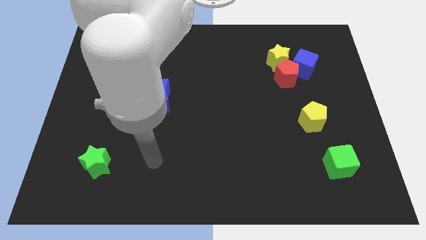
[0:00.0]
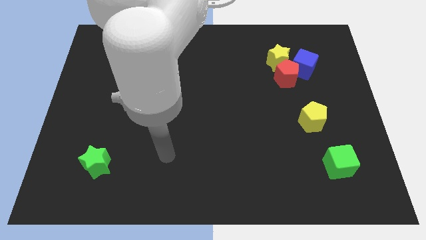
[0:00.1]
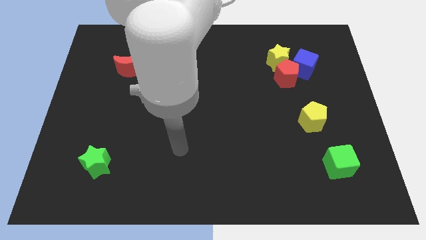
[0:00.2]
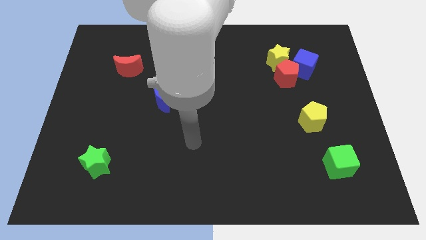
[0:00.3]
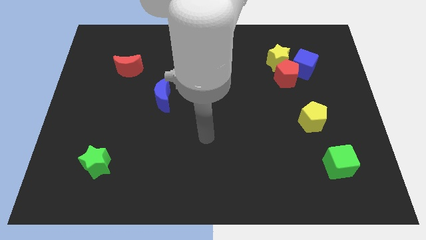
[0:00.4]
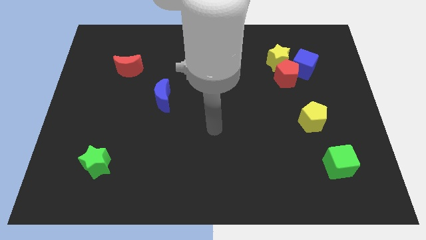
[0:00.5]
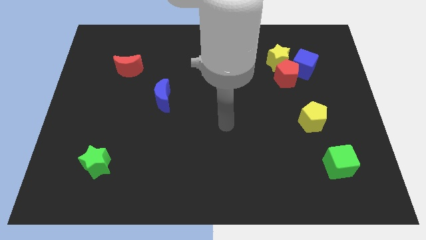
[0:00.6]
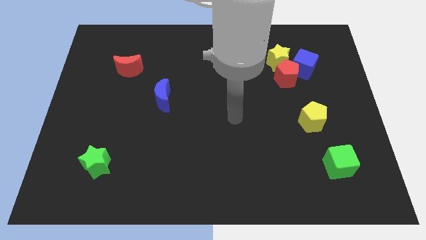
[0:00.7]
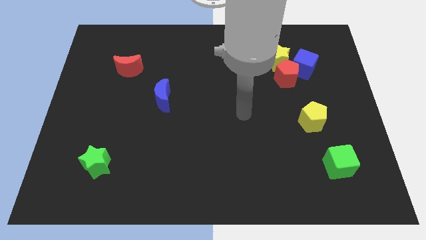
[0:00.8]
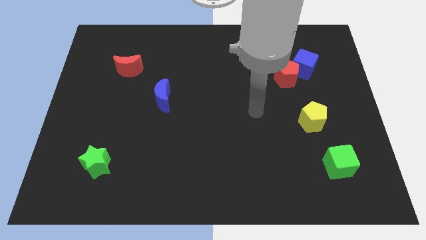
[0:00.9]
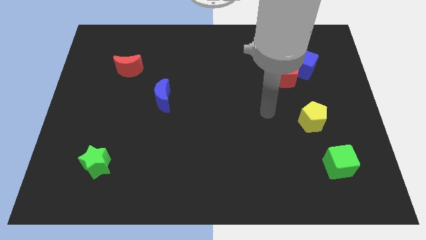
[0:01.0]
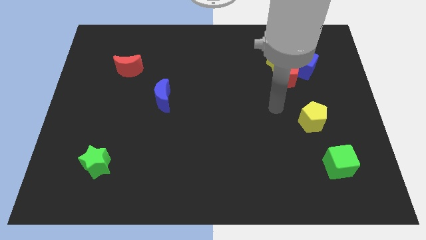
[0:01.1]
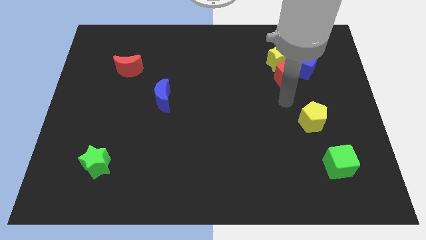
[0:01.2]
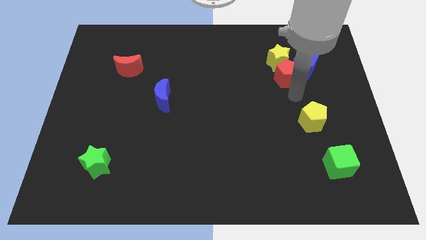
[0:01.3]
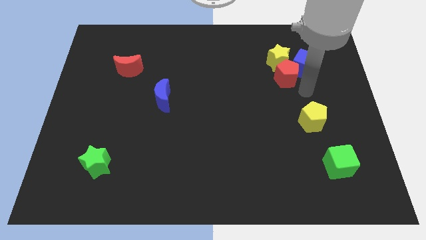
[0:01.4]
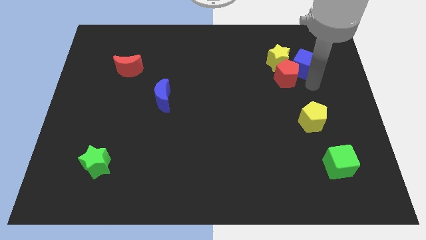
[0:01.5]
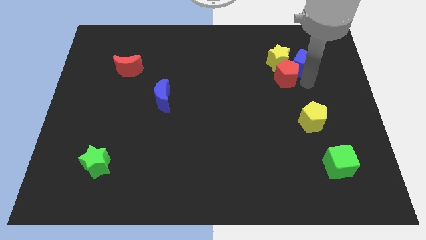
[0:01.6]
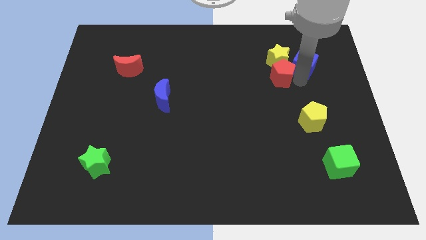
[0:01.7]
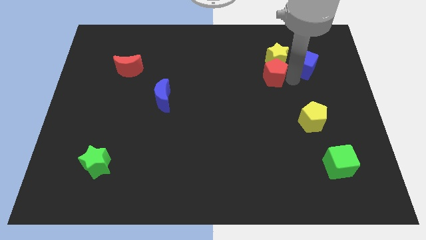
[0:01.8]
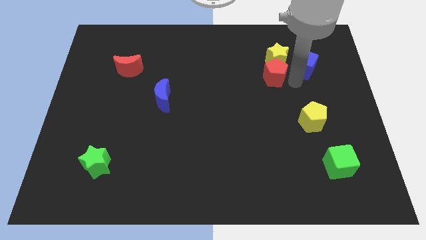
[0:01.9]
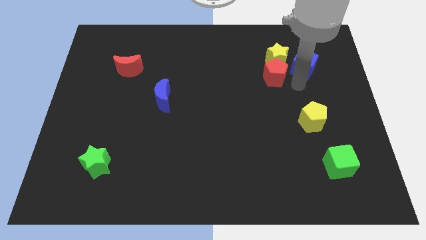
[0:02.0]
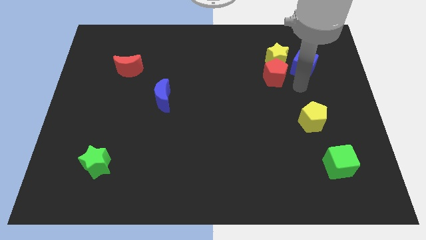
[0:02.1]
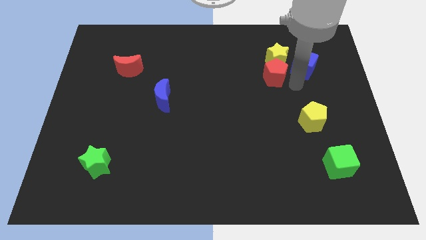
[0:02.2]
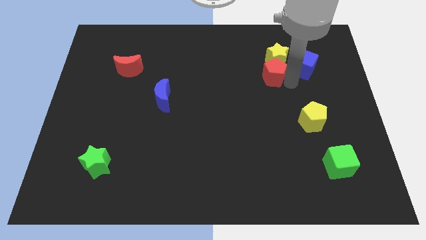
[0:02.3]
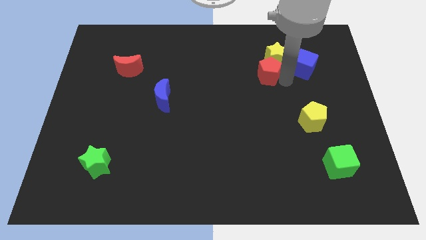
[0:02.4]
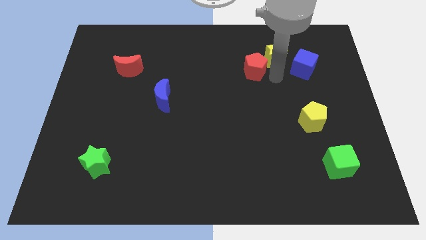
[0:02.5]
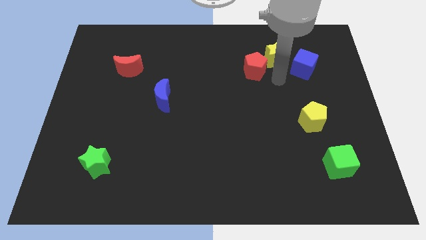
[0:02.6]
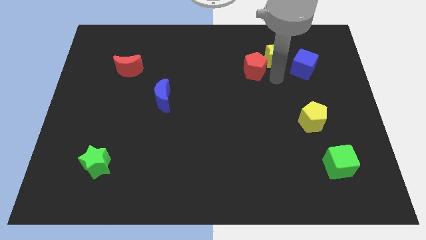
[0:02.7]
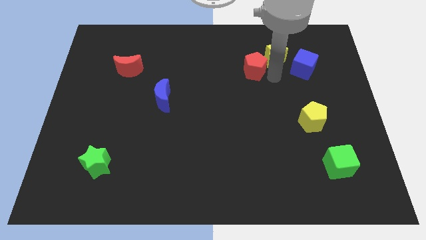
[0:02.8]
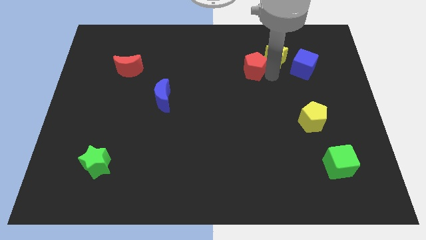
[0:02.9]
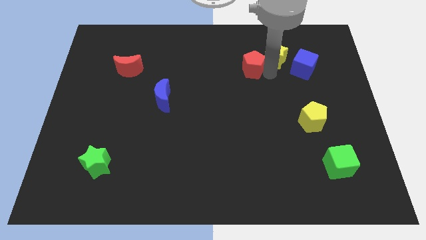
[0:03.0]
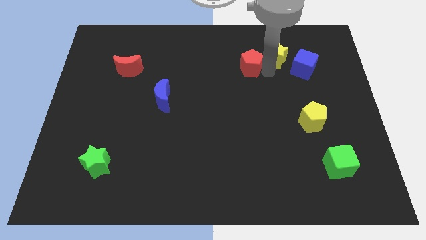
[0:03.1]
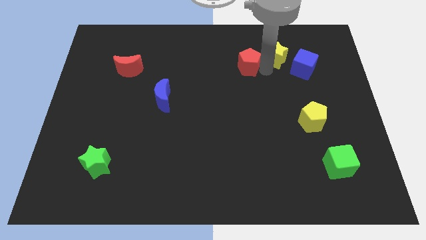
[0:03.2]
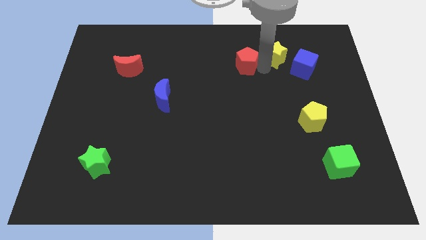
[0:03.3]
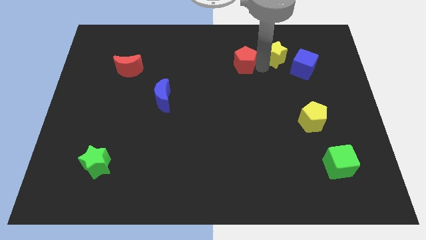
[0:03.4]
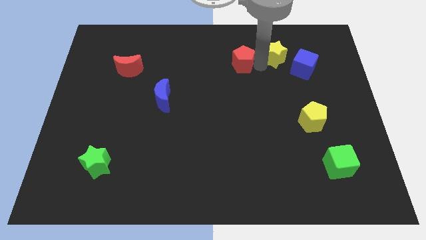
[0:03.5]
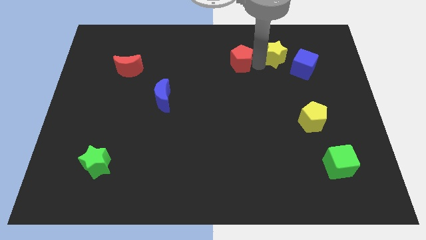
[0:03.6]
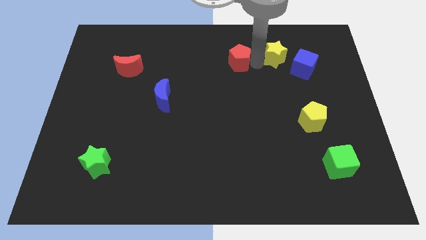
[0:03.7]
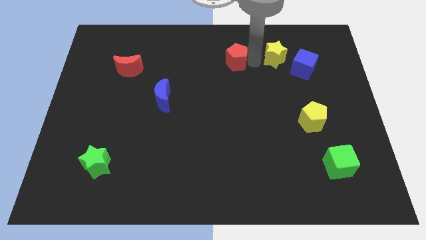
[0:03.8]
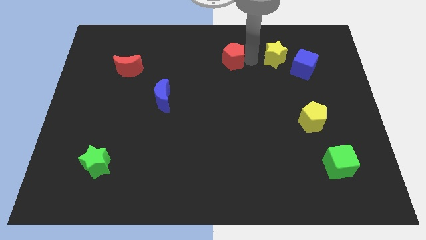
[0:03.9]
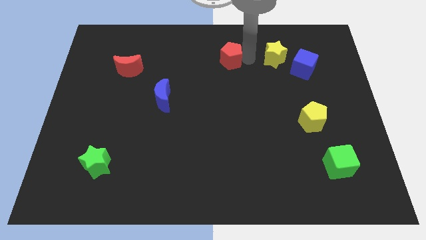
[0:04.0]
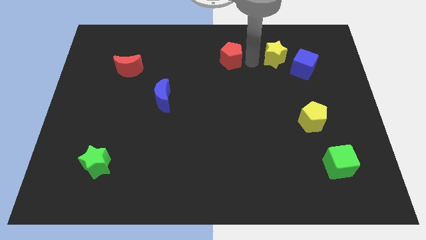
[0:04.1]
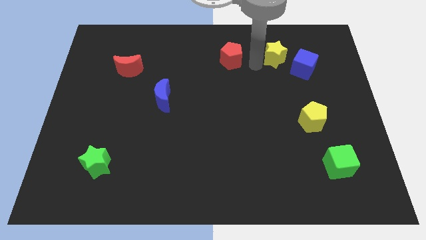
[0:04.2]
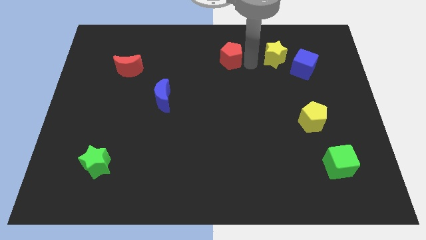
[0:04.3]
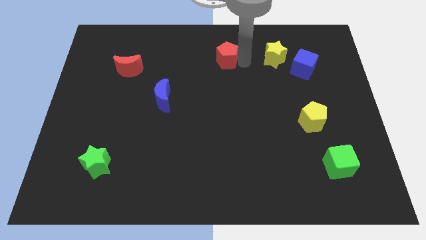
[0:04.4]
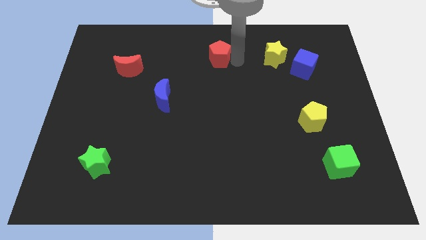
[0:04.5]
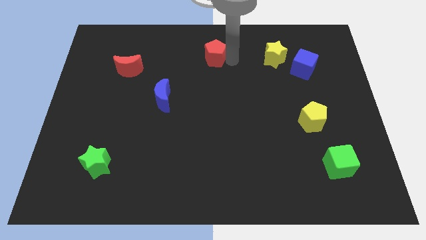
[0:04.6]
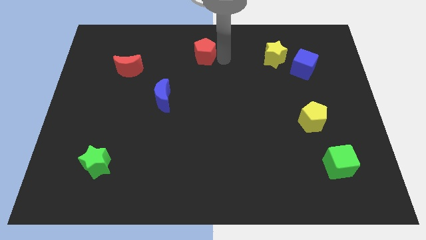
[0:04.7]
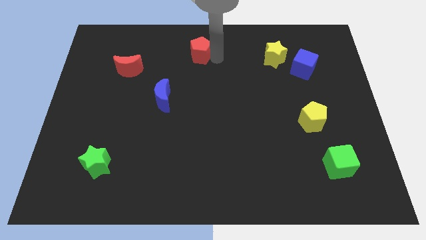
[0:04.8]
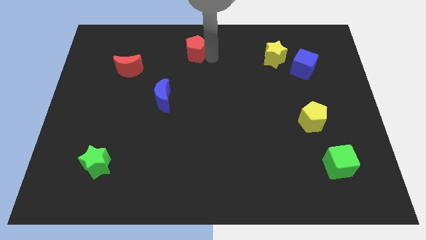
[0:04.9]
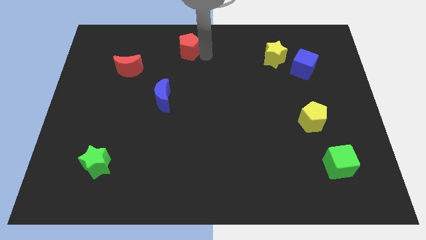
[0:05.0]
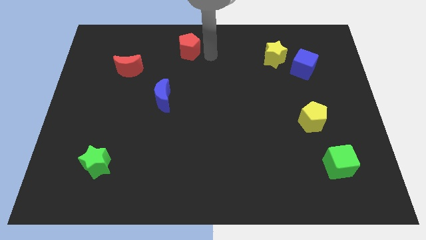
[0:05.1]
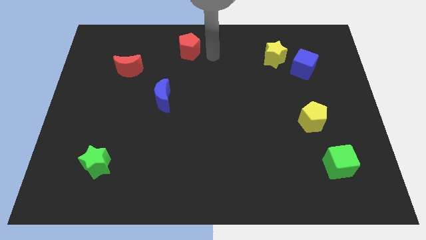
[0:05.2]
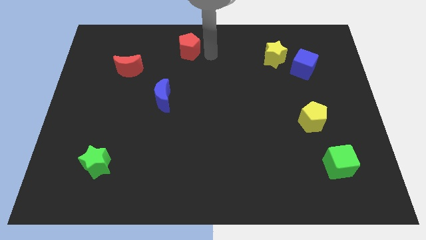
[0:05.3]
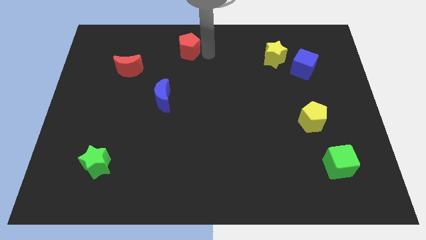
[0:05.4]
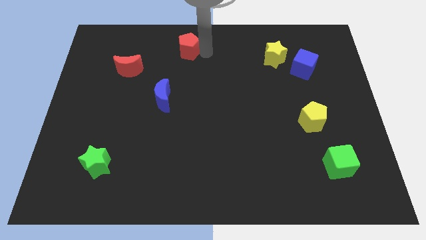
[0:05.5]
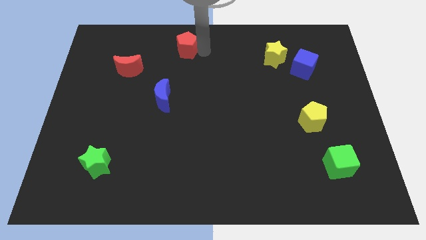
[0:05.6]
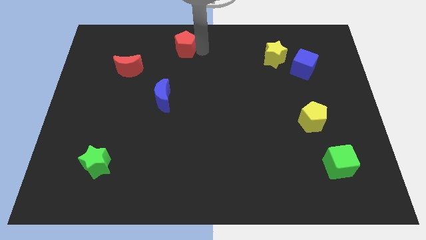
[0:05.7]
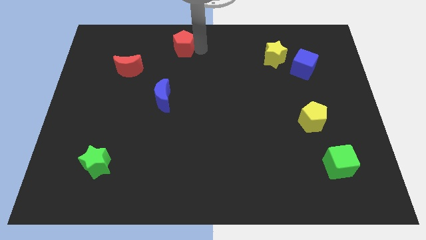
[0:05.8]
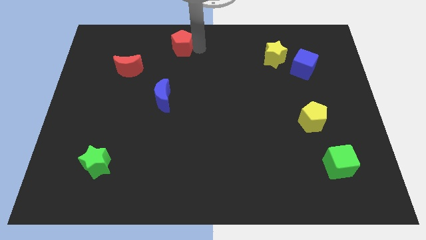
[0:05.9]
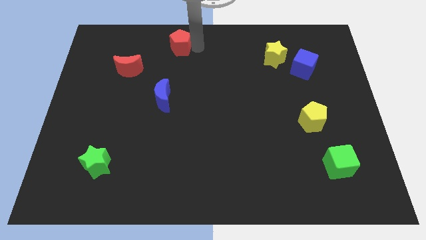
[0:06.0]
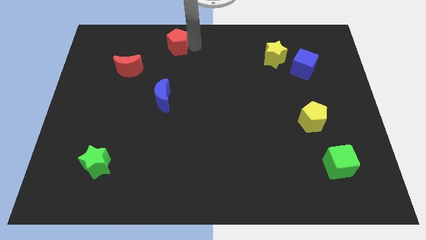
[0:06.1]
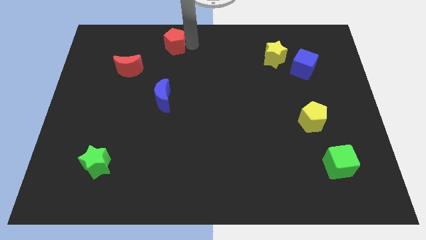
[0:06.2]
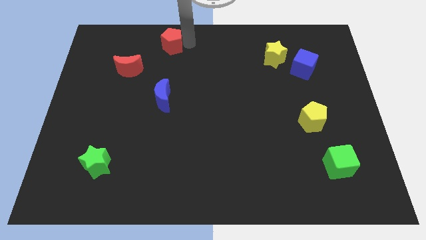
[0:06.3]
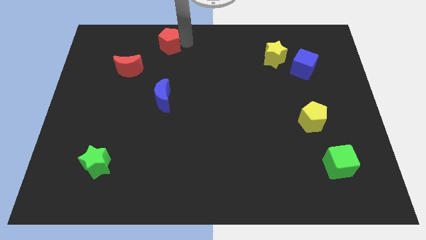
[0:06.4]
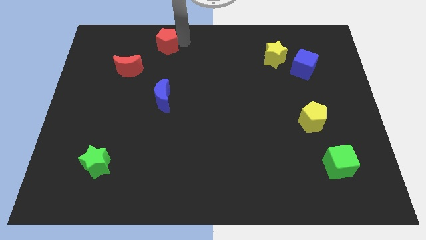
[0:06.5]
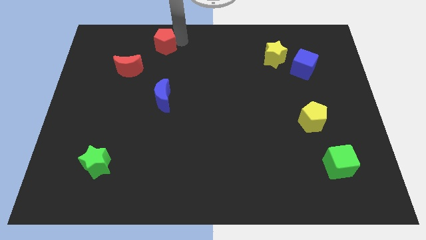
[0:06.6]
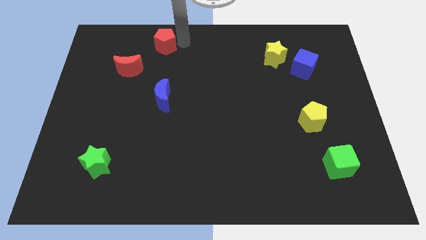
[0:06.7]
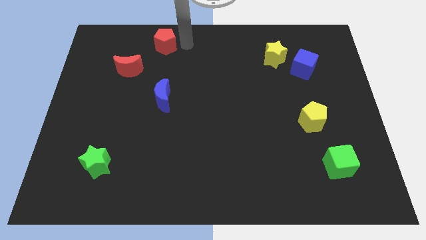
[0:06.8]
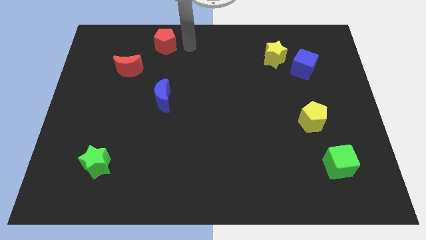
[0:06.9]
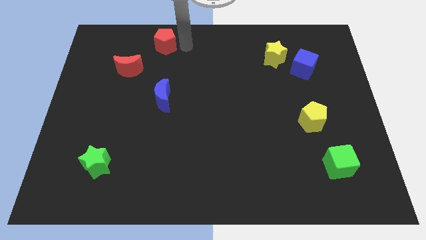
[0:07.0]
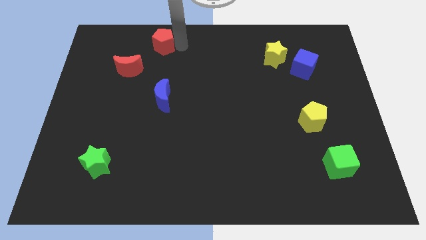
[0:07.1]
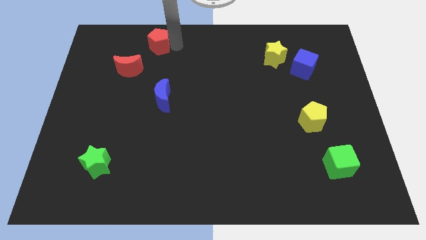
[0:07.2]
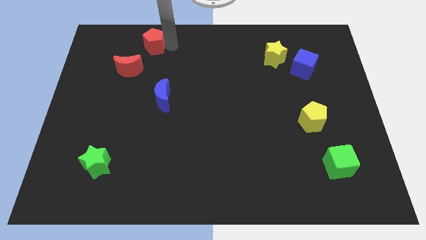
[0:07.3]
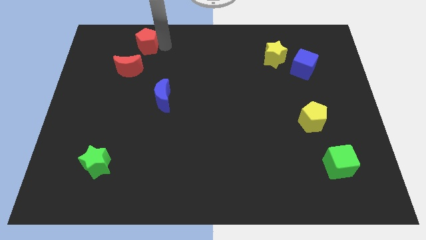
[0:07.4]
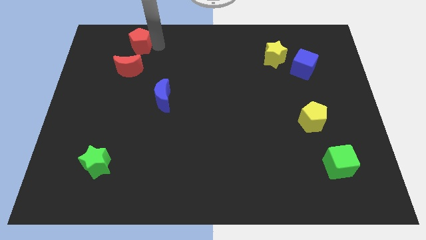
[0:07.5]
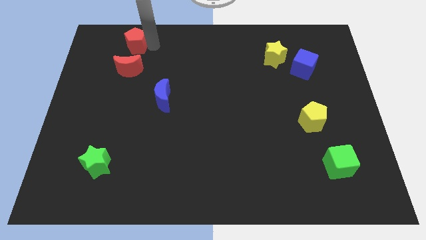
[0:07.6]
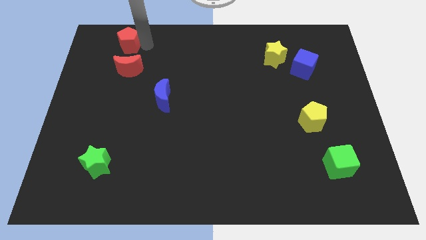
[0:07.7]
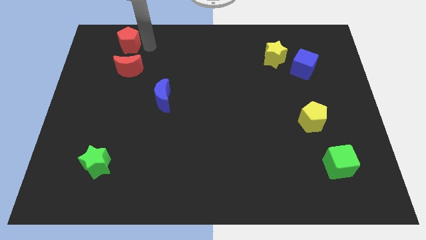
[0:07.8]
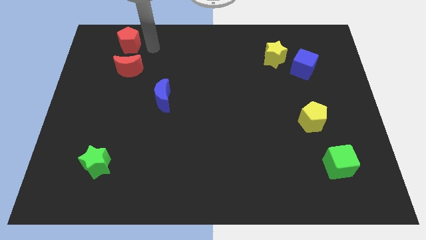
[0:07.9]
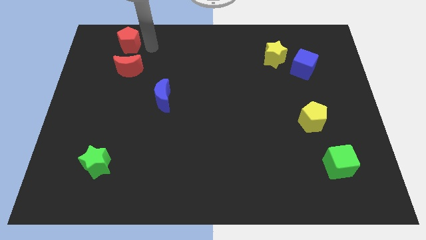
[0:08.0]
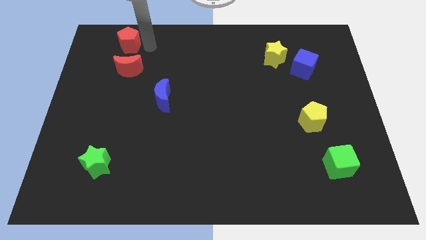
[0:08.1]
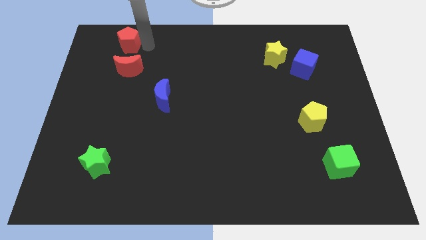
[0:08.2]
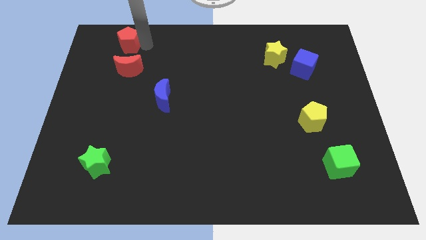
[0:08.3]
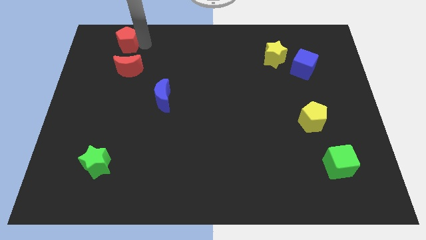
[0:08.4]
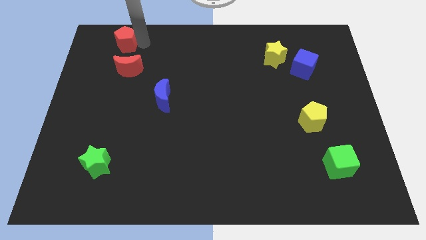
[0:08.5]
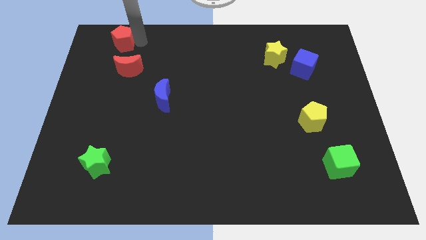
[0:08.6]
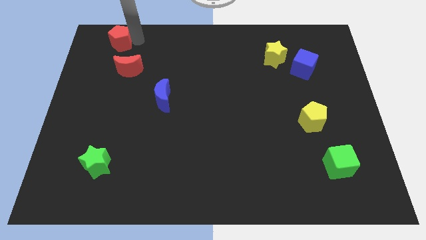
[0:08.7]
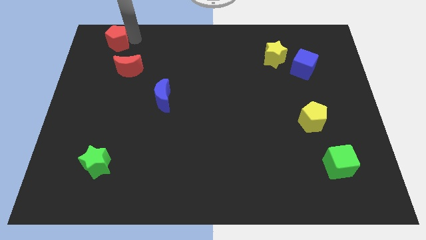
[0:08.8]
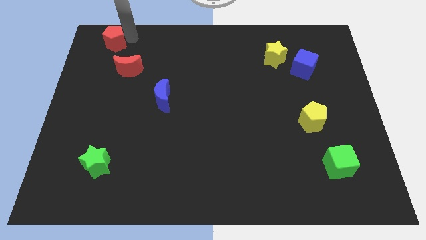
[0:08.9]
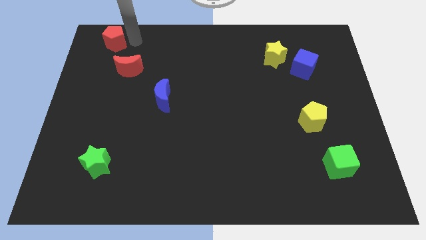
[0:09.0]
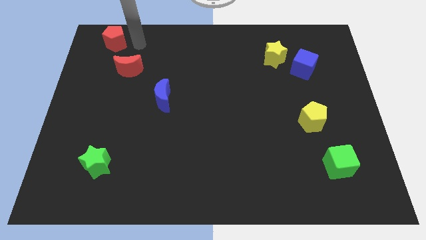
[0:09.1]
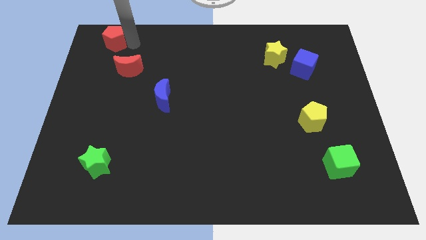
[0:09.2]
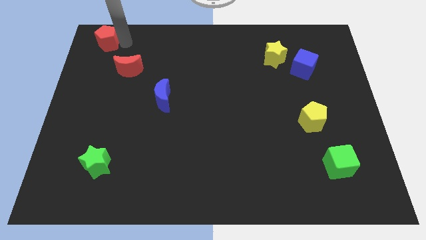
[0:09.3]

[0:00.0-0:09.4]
push the red pentagon to the upper left corner
